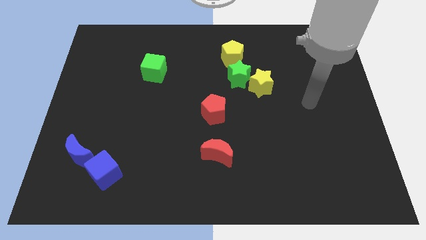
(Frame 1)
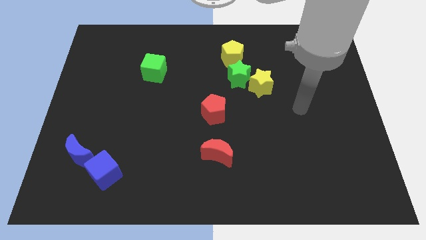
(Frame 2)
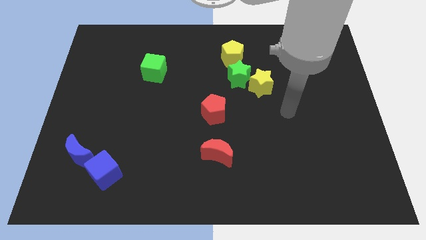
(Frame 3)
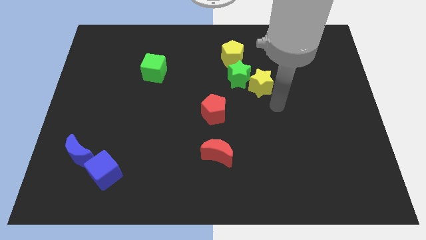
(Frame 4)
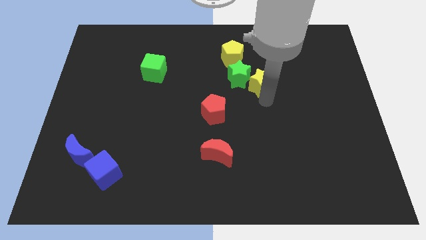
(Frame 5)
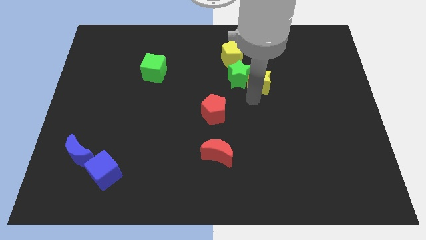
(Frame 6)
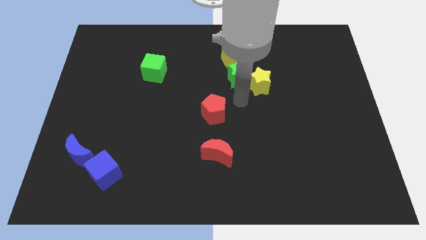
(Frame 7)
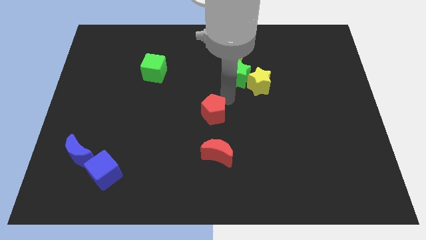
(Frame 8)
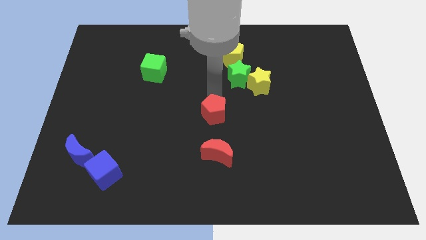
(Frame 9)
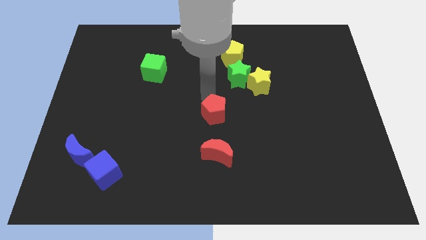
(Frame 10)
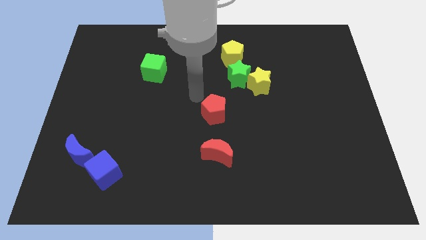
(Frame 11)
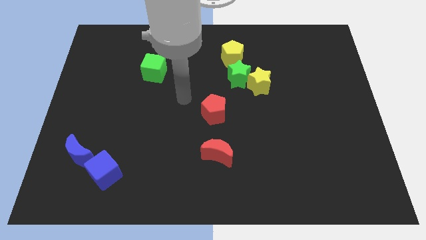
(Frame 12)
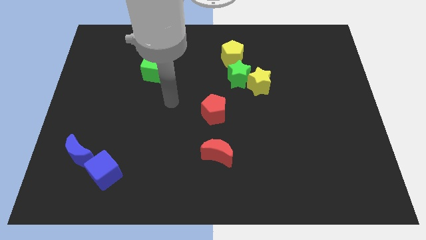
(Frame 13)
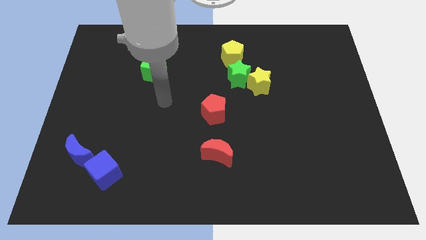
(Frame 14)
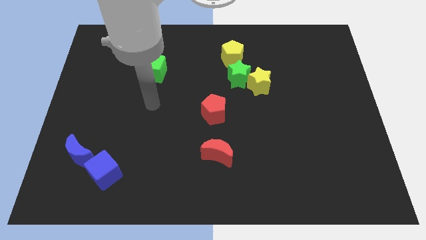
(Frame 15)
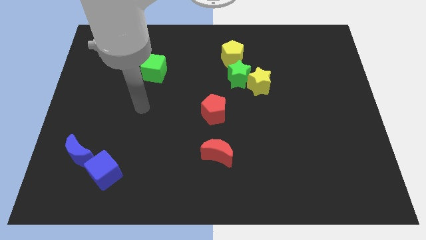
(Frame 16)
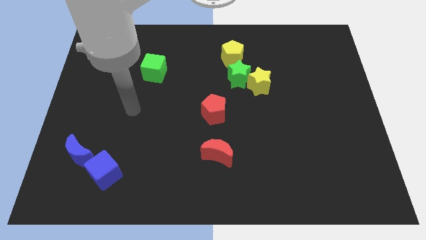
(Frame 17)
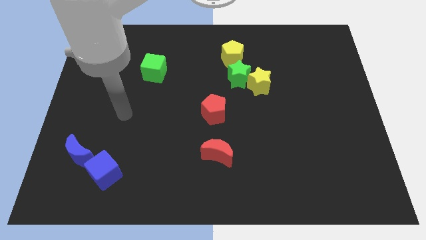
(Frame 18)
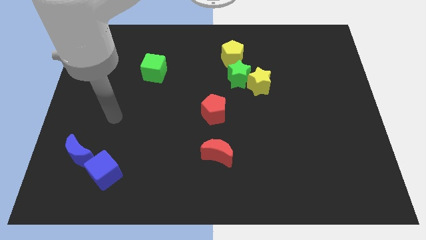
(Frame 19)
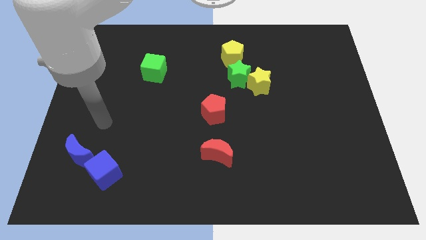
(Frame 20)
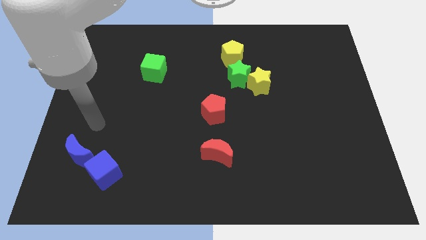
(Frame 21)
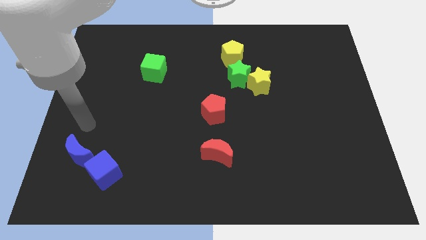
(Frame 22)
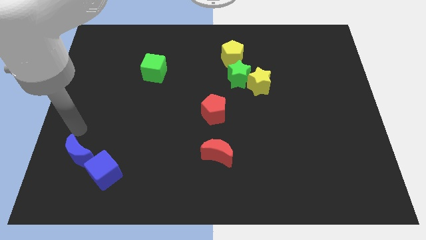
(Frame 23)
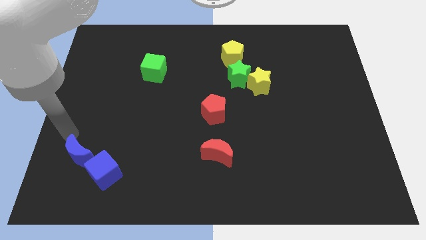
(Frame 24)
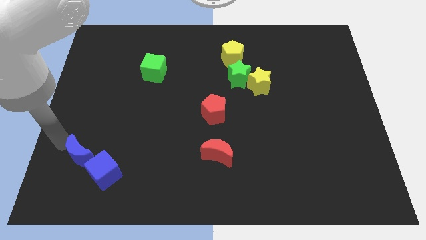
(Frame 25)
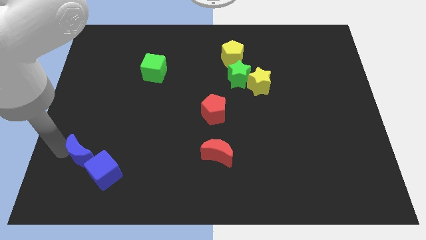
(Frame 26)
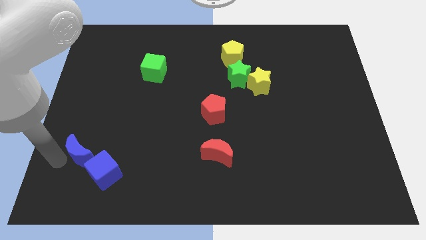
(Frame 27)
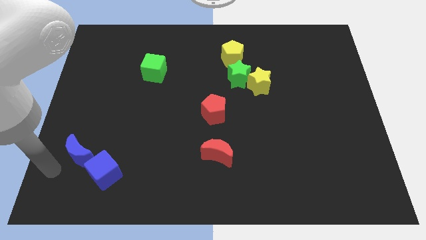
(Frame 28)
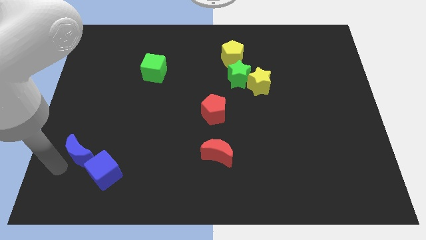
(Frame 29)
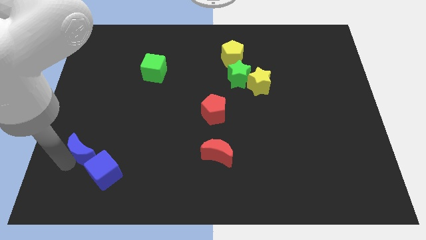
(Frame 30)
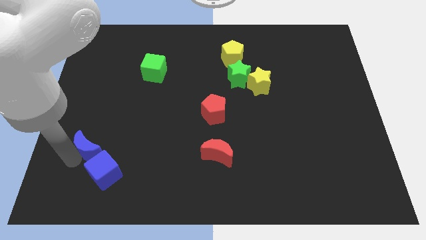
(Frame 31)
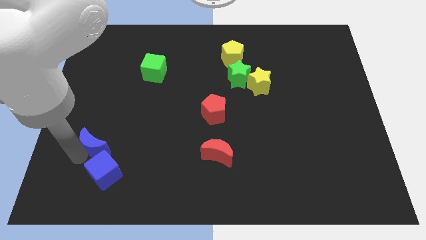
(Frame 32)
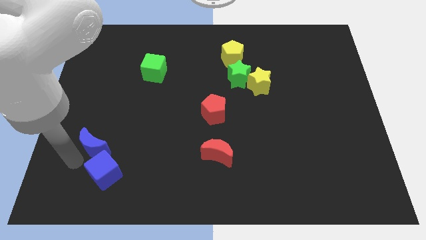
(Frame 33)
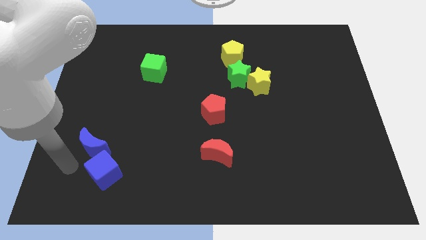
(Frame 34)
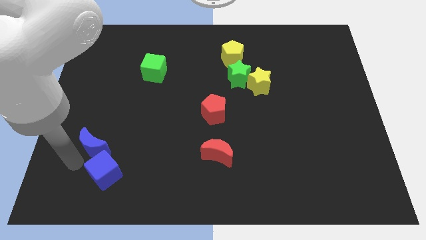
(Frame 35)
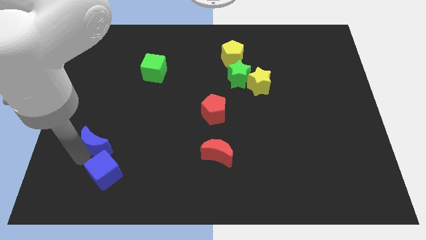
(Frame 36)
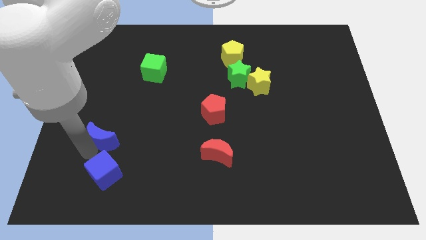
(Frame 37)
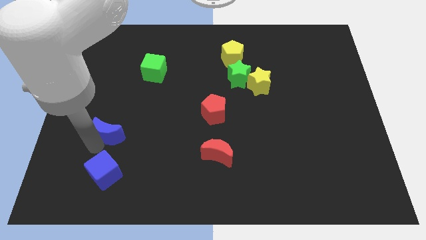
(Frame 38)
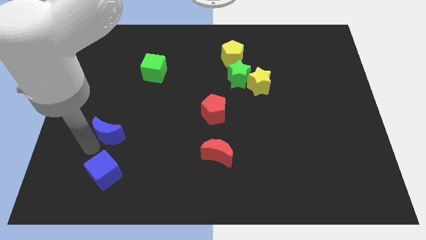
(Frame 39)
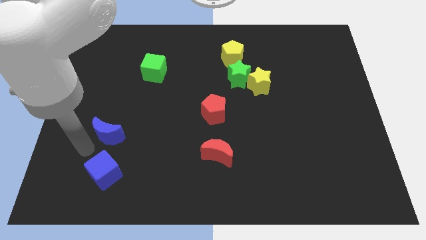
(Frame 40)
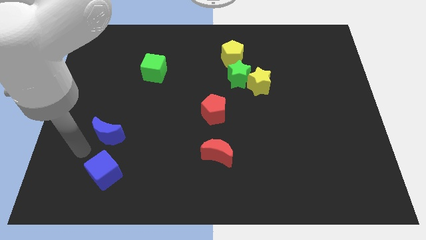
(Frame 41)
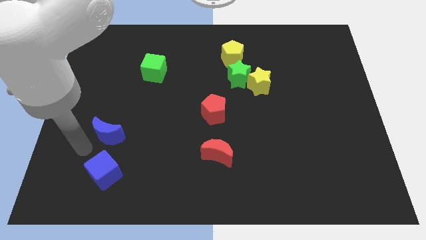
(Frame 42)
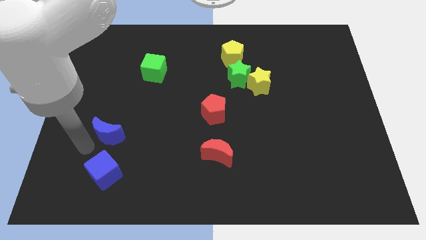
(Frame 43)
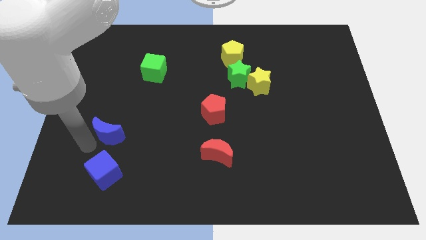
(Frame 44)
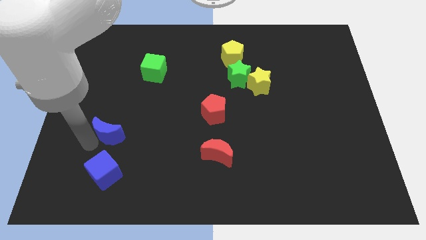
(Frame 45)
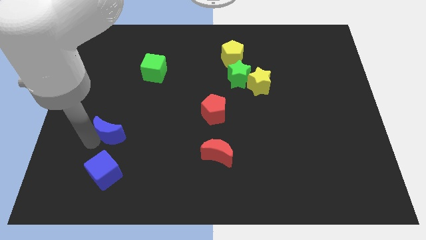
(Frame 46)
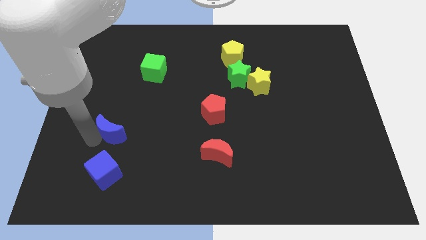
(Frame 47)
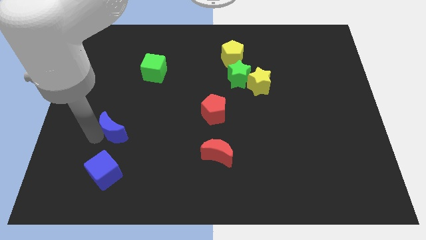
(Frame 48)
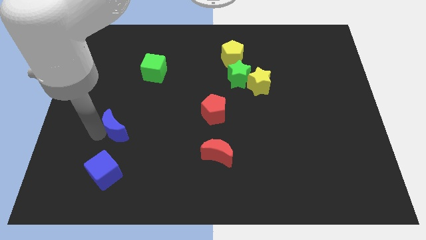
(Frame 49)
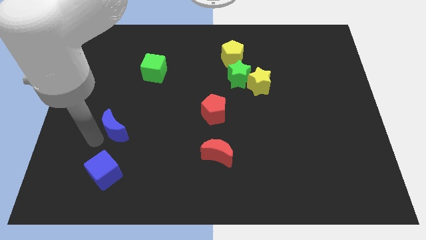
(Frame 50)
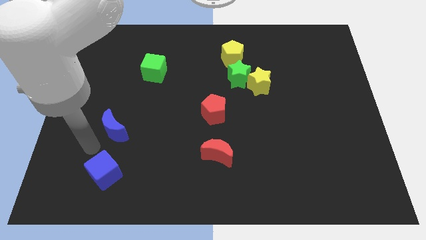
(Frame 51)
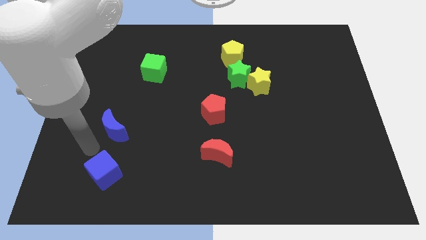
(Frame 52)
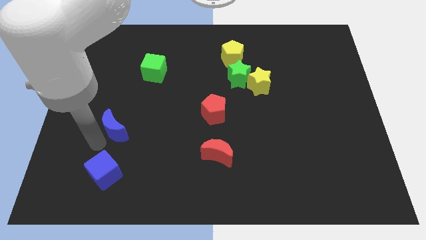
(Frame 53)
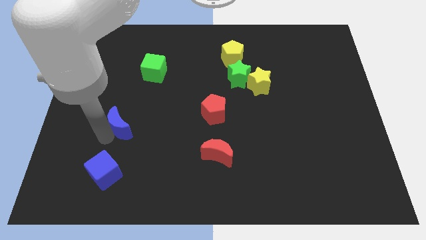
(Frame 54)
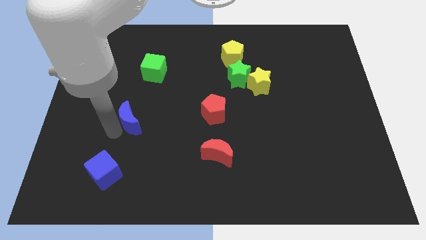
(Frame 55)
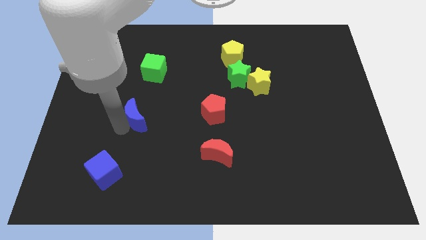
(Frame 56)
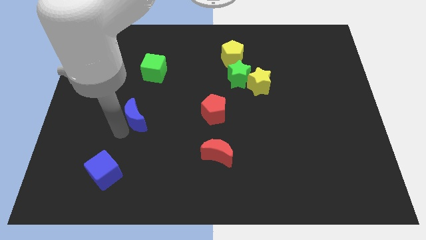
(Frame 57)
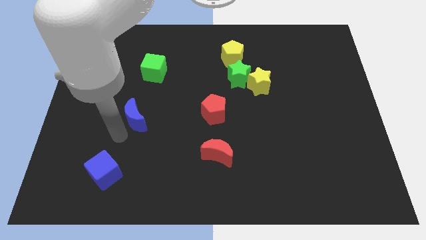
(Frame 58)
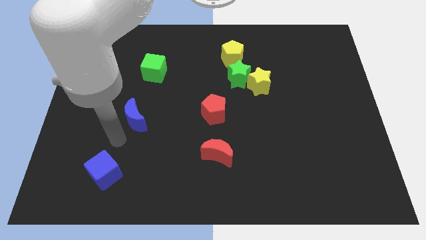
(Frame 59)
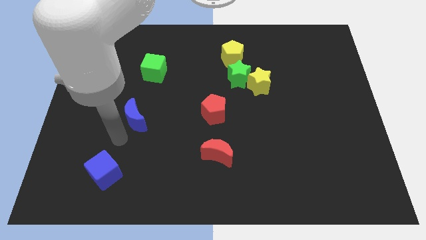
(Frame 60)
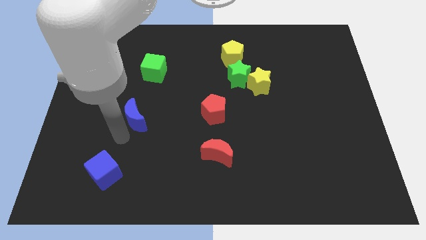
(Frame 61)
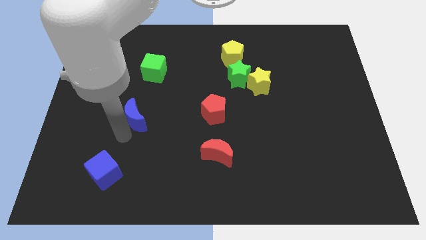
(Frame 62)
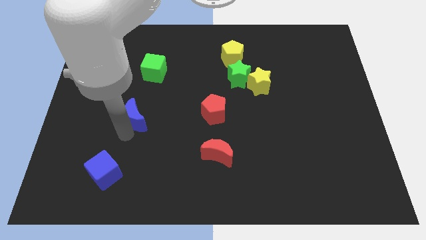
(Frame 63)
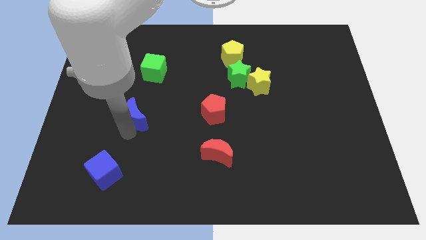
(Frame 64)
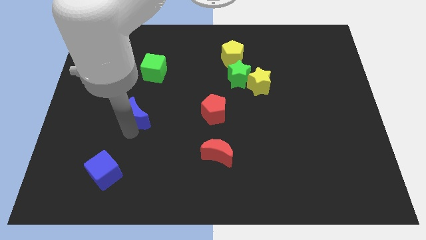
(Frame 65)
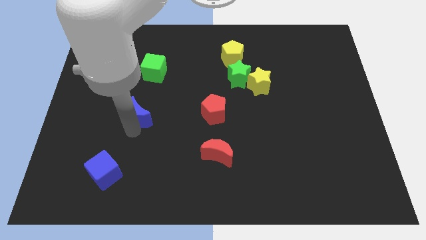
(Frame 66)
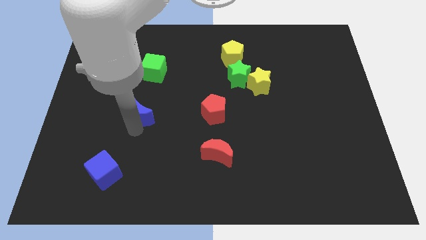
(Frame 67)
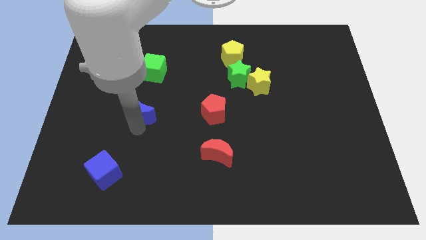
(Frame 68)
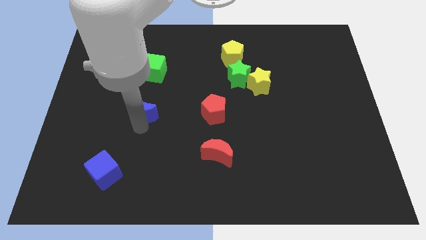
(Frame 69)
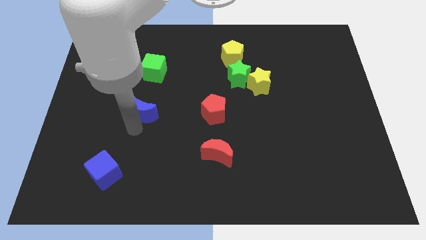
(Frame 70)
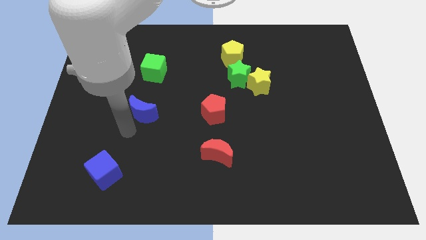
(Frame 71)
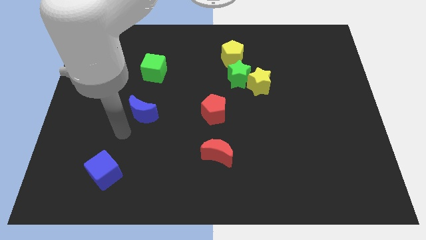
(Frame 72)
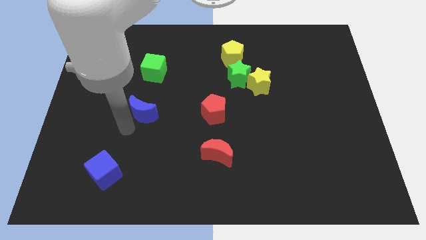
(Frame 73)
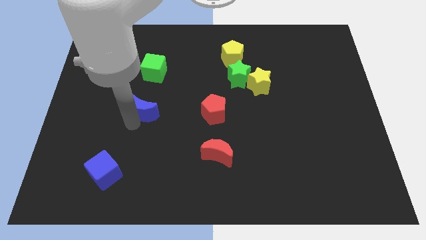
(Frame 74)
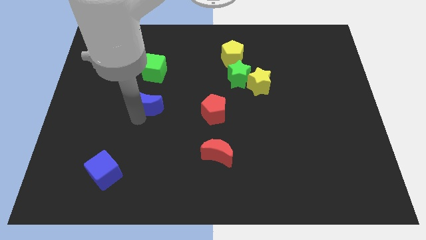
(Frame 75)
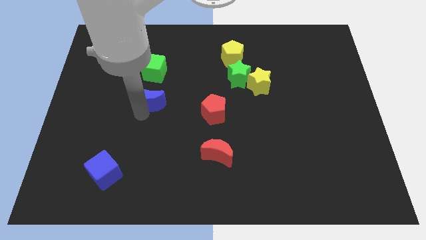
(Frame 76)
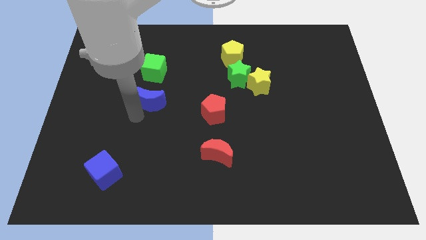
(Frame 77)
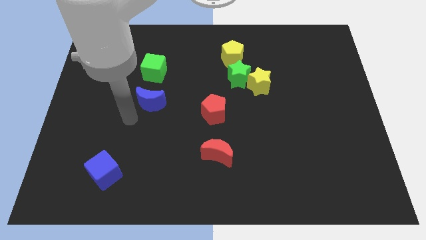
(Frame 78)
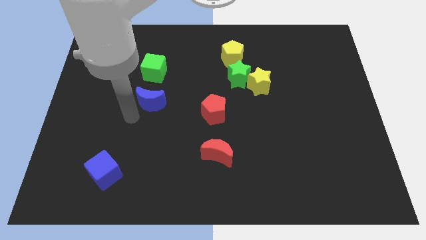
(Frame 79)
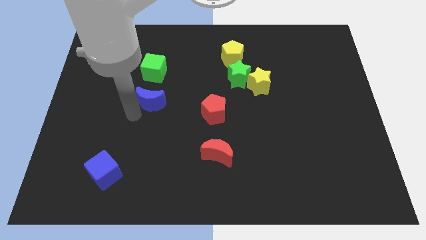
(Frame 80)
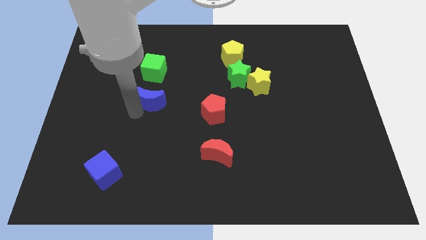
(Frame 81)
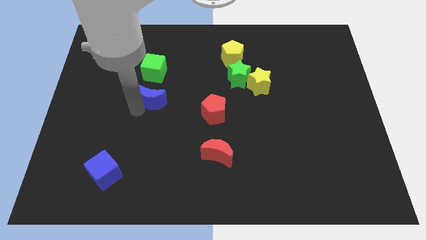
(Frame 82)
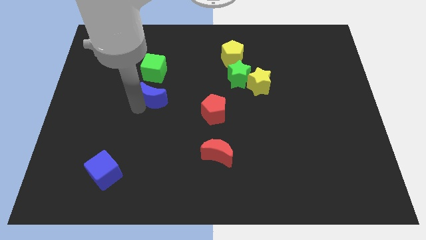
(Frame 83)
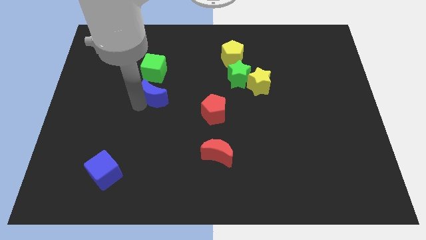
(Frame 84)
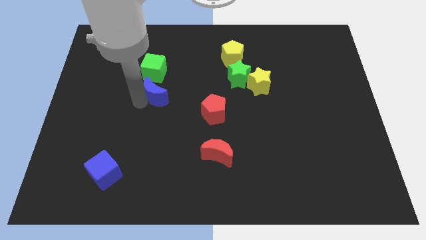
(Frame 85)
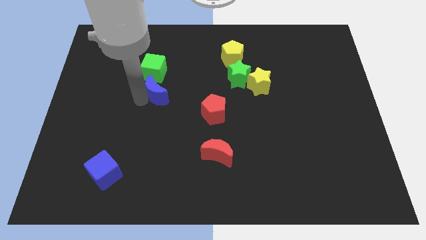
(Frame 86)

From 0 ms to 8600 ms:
put the blue moon to the bottom right side of the green cube
